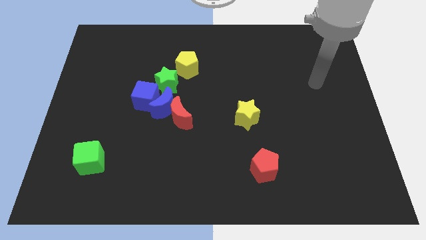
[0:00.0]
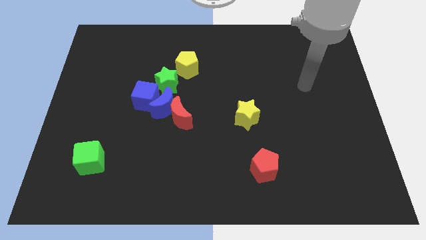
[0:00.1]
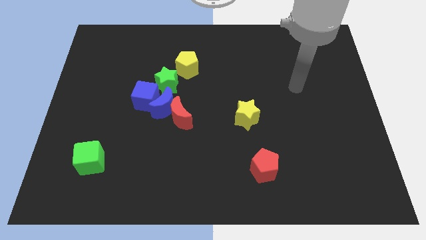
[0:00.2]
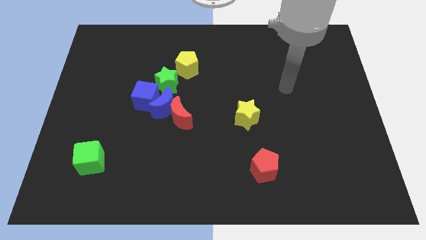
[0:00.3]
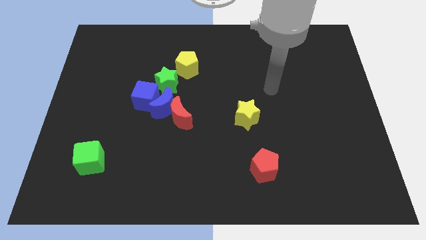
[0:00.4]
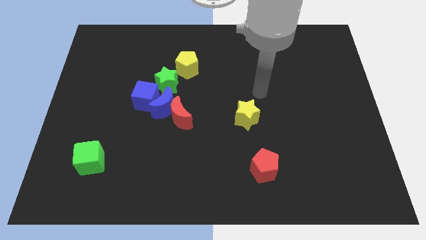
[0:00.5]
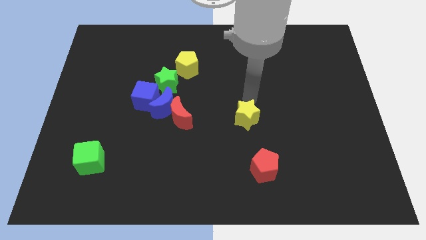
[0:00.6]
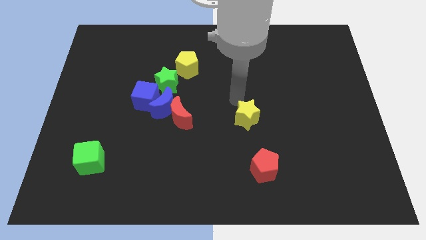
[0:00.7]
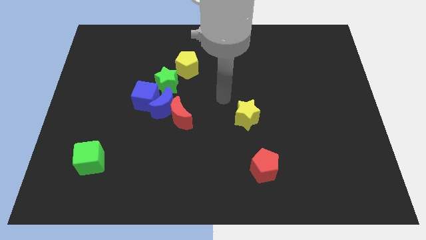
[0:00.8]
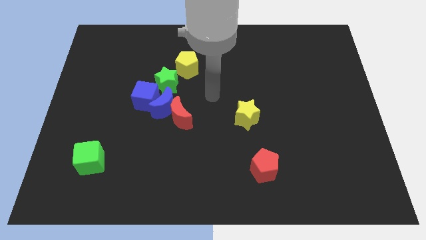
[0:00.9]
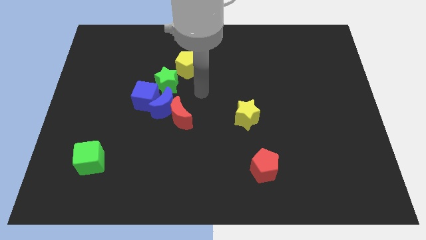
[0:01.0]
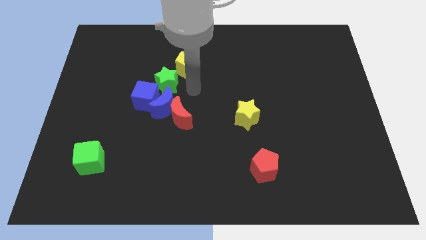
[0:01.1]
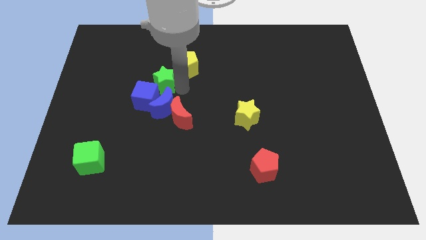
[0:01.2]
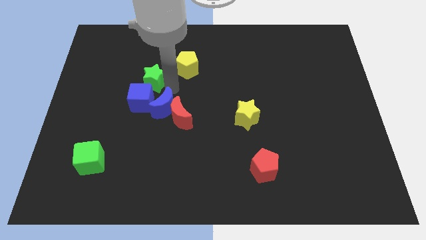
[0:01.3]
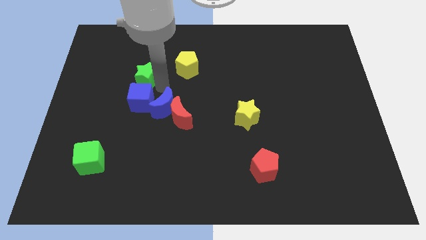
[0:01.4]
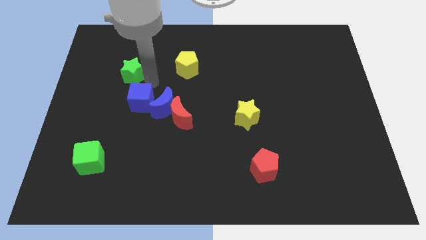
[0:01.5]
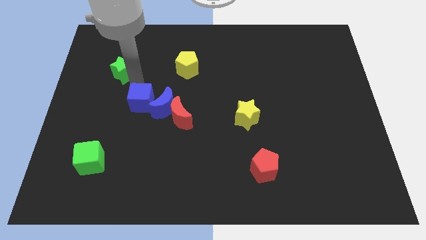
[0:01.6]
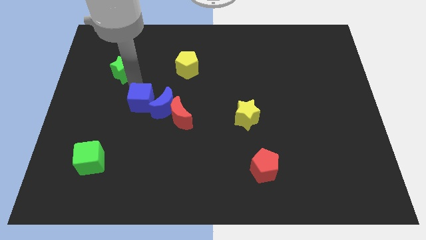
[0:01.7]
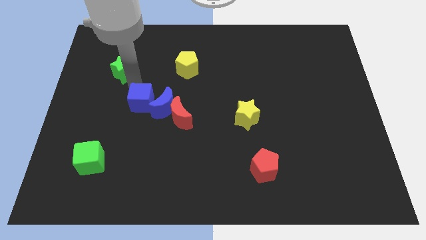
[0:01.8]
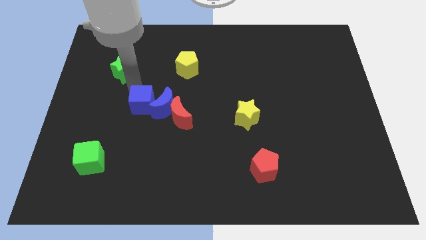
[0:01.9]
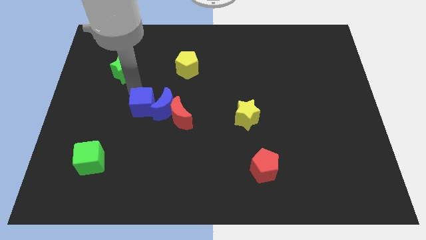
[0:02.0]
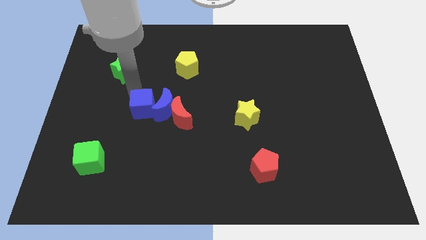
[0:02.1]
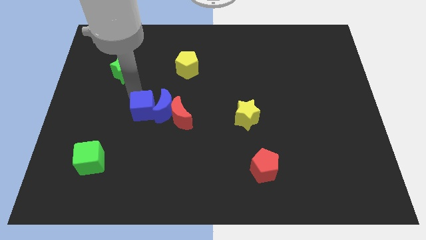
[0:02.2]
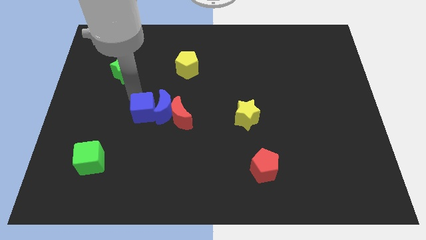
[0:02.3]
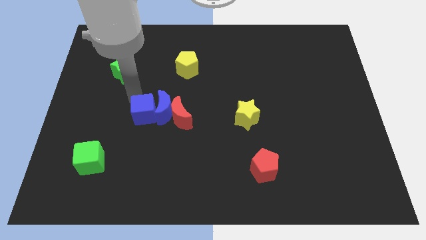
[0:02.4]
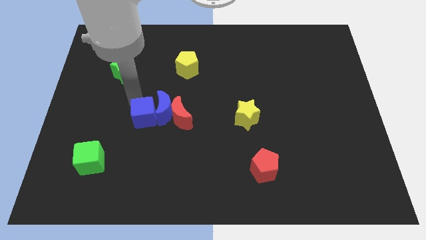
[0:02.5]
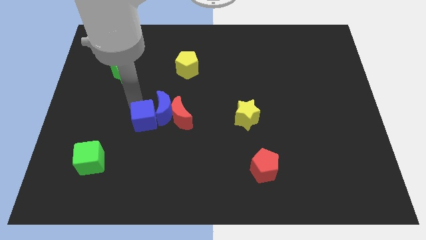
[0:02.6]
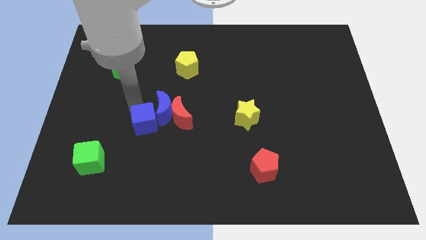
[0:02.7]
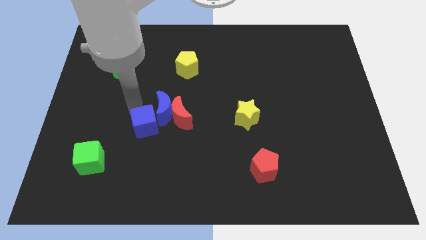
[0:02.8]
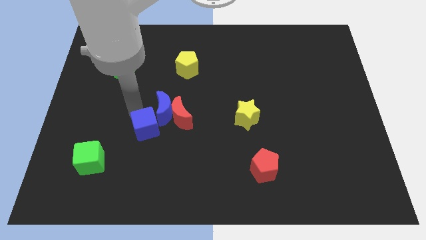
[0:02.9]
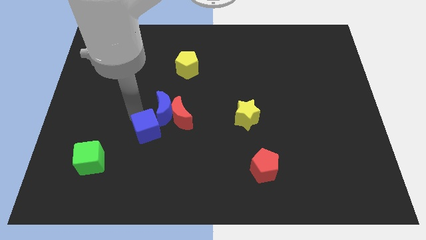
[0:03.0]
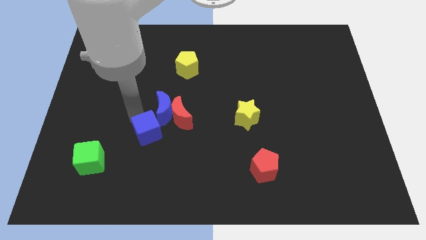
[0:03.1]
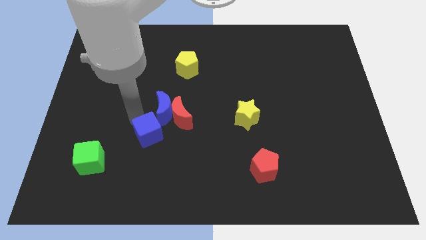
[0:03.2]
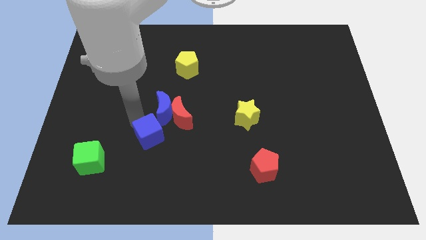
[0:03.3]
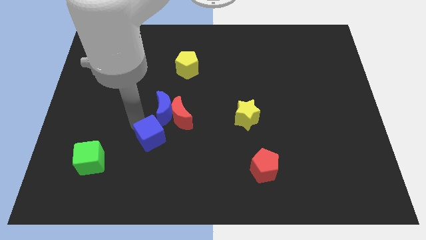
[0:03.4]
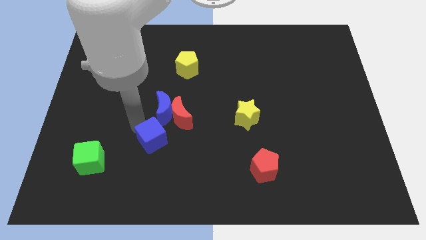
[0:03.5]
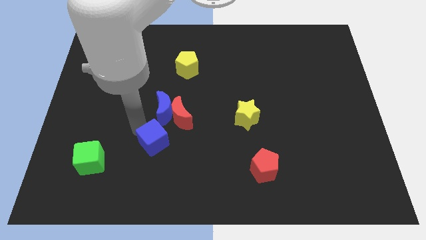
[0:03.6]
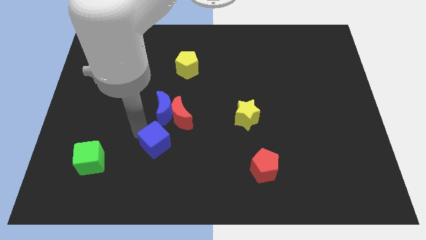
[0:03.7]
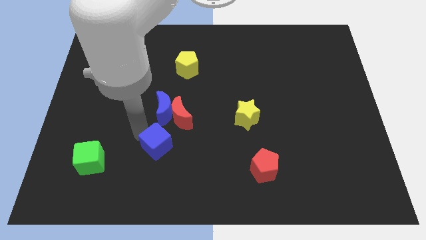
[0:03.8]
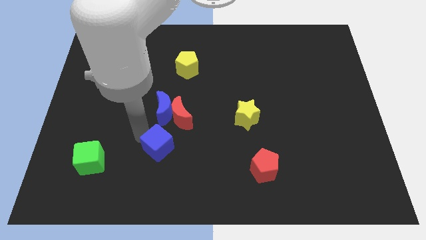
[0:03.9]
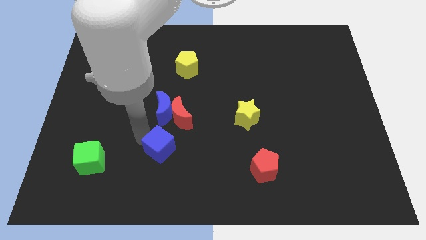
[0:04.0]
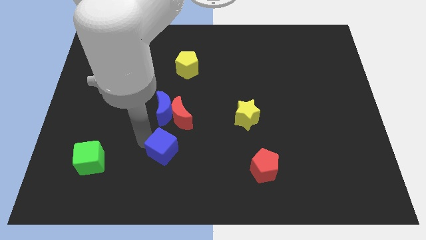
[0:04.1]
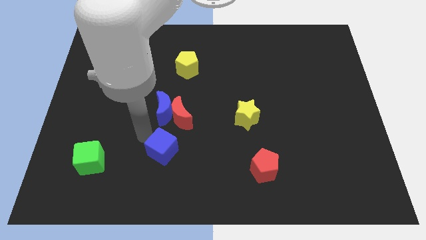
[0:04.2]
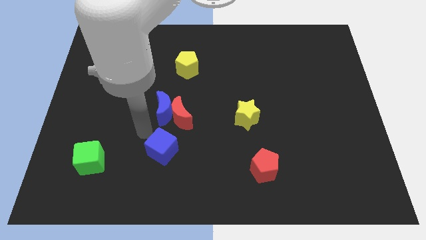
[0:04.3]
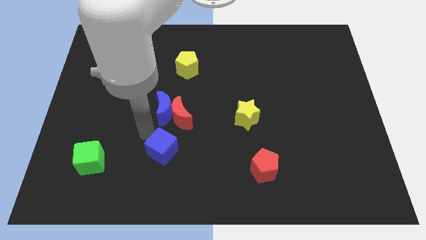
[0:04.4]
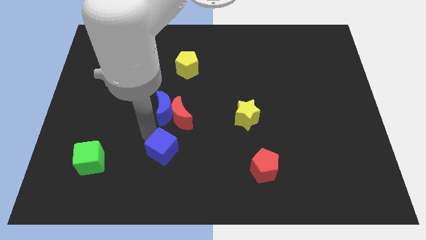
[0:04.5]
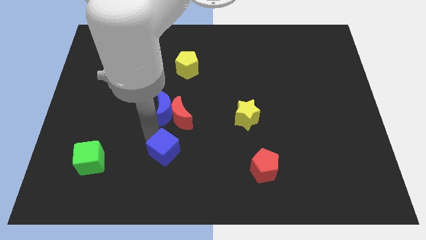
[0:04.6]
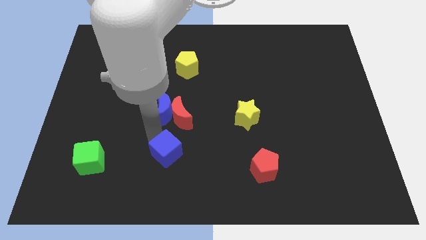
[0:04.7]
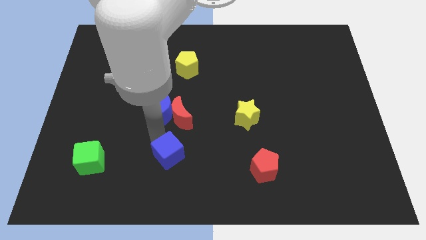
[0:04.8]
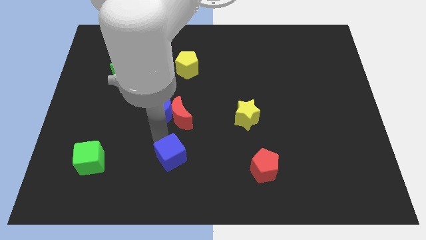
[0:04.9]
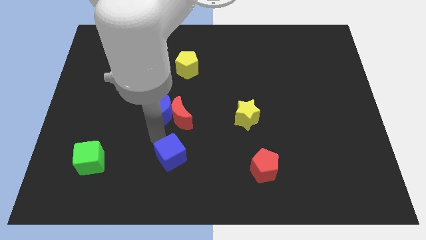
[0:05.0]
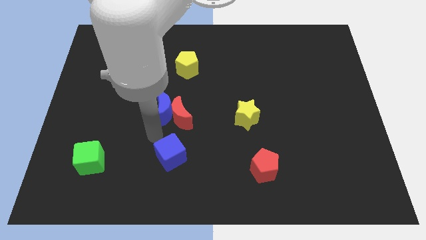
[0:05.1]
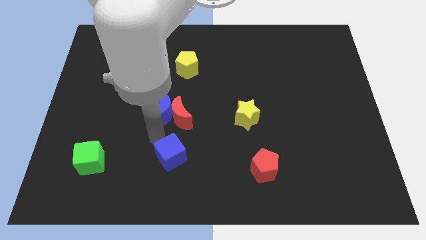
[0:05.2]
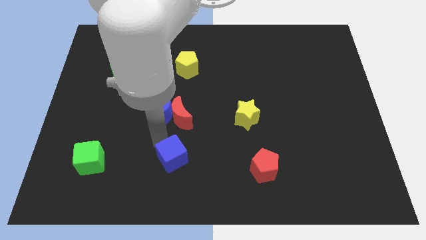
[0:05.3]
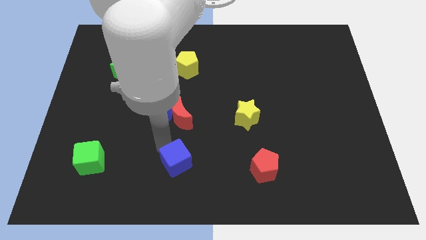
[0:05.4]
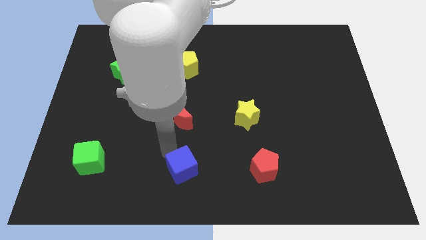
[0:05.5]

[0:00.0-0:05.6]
push the blue cube to the bottom side
